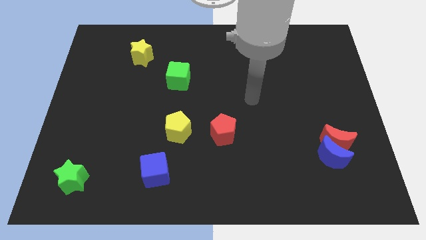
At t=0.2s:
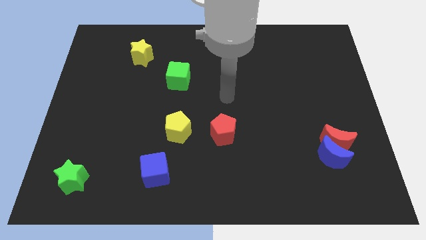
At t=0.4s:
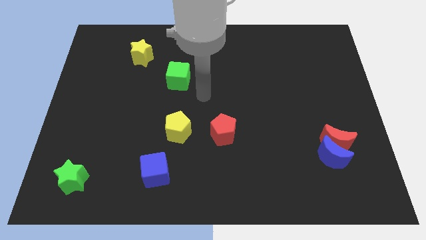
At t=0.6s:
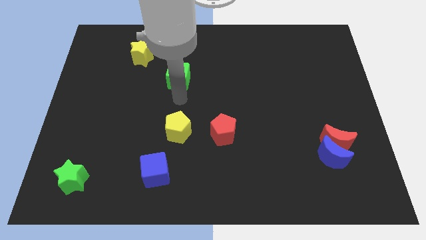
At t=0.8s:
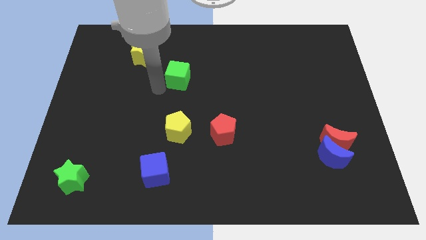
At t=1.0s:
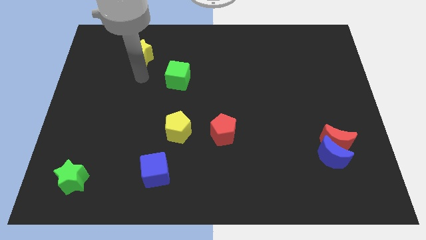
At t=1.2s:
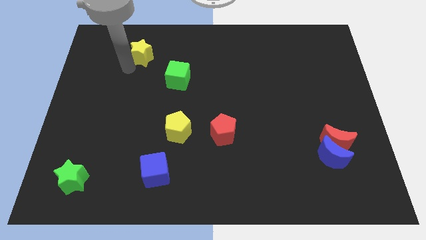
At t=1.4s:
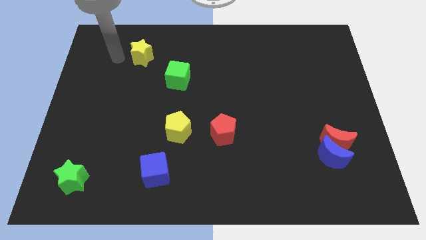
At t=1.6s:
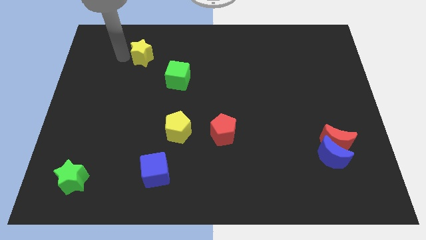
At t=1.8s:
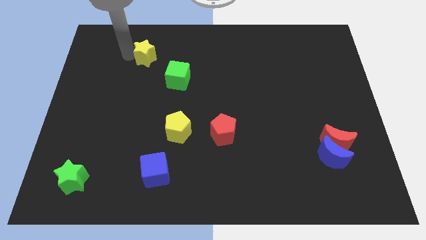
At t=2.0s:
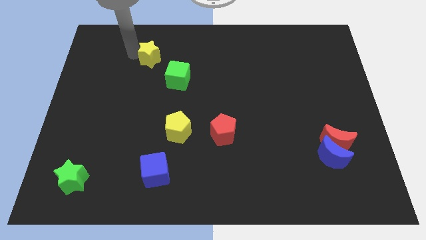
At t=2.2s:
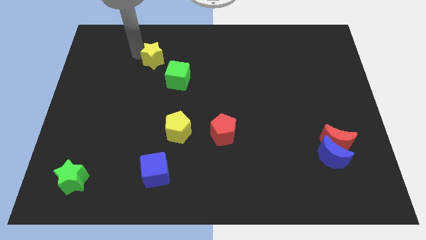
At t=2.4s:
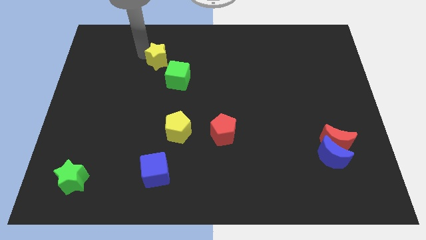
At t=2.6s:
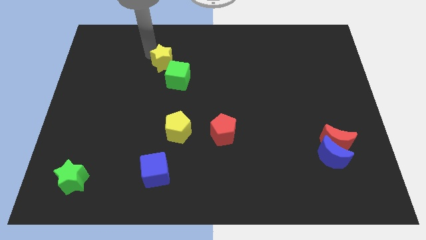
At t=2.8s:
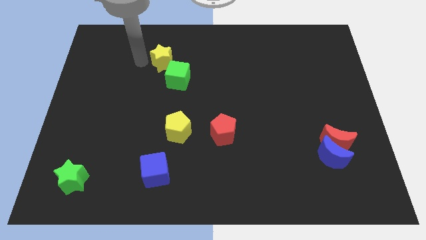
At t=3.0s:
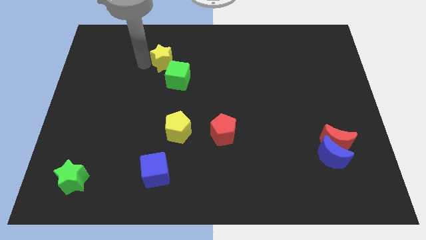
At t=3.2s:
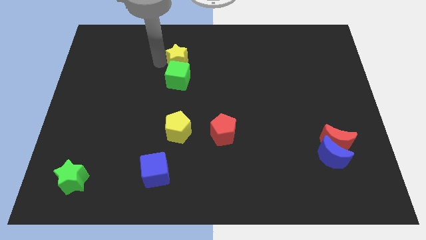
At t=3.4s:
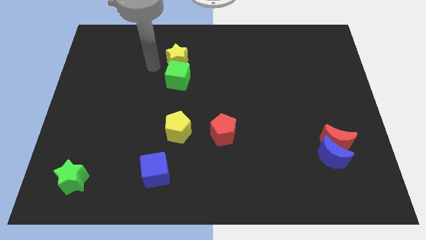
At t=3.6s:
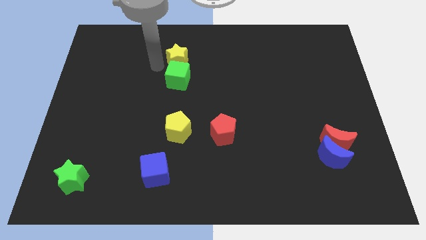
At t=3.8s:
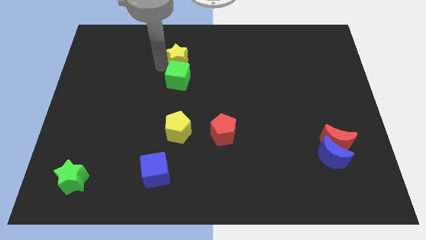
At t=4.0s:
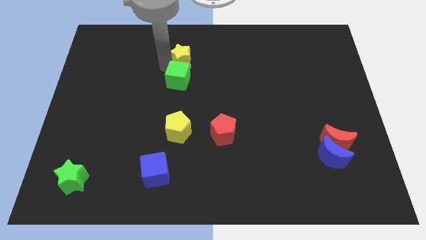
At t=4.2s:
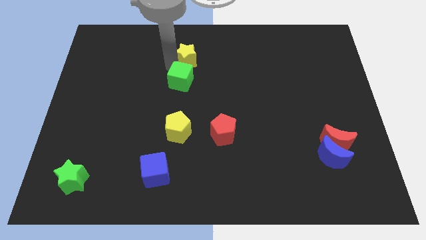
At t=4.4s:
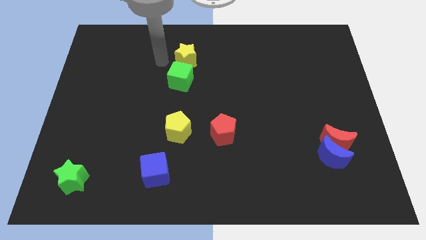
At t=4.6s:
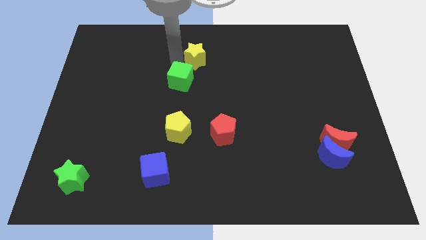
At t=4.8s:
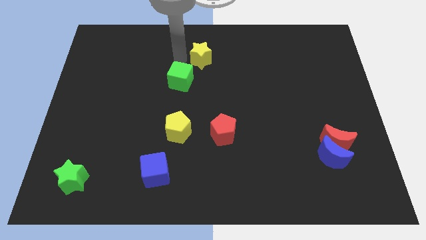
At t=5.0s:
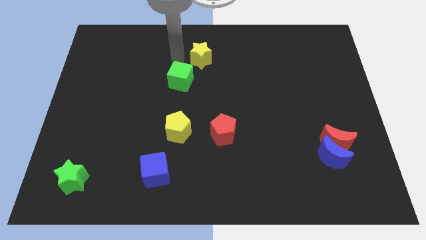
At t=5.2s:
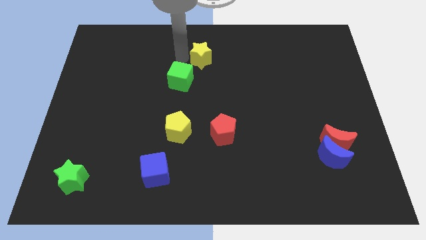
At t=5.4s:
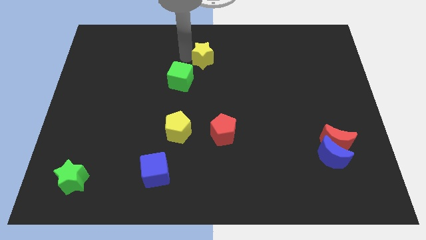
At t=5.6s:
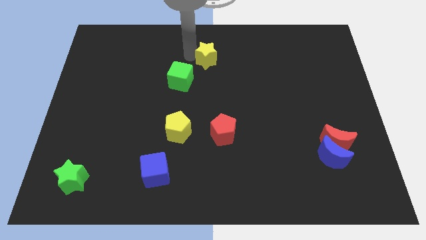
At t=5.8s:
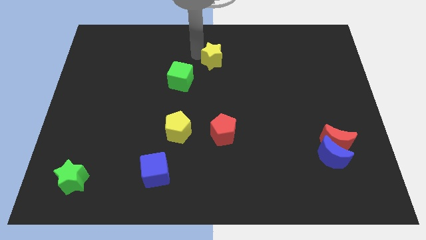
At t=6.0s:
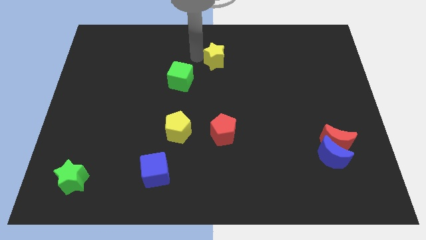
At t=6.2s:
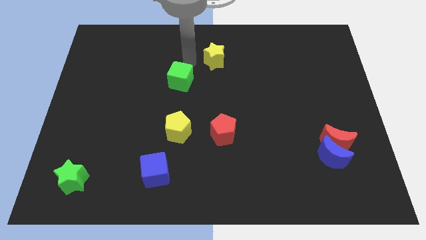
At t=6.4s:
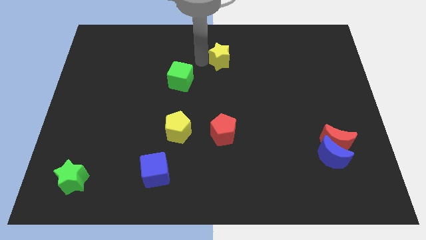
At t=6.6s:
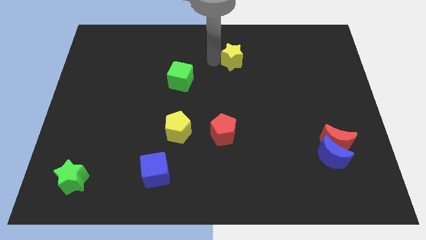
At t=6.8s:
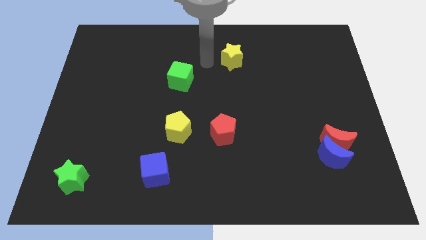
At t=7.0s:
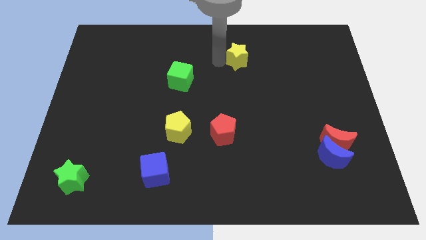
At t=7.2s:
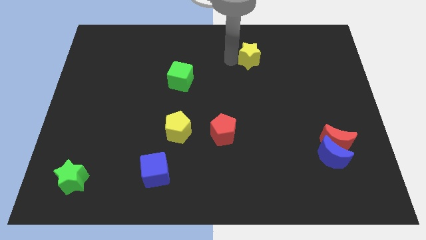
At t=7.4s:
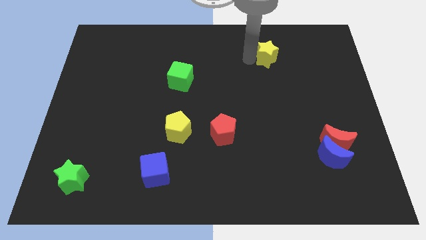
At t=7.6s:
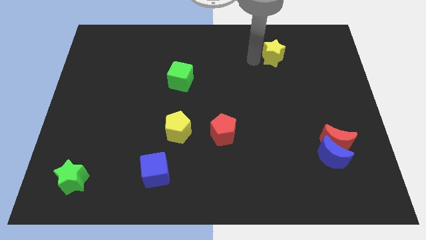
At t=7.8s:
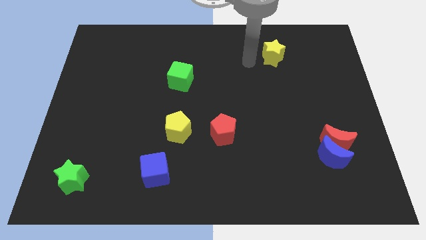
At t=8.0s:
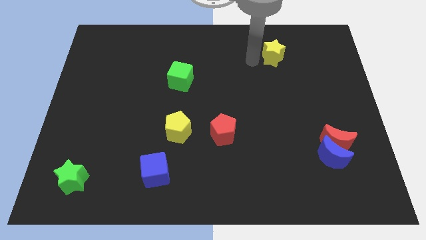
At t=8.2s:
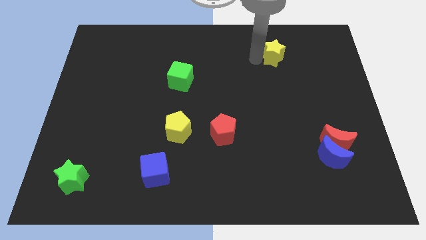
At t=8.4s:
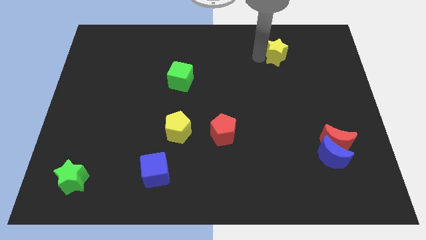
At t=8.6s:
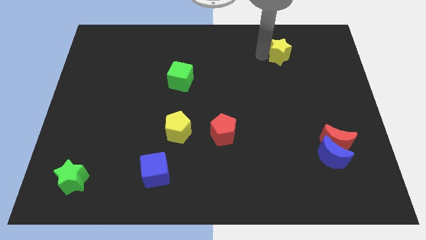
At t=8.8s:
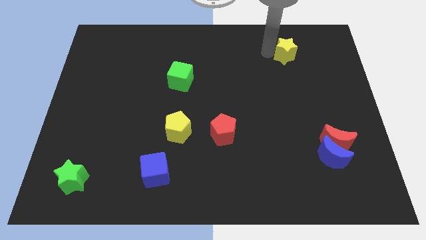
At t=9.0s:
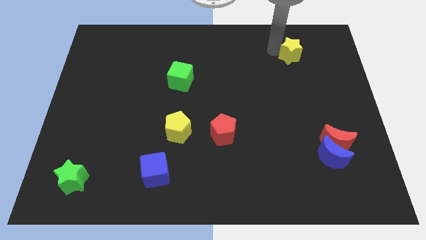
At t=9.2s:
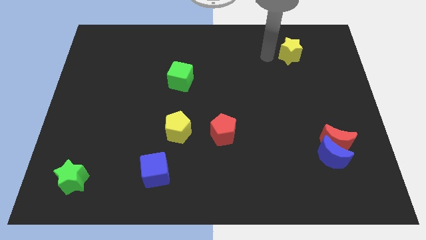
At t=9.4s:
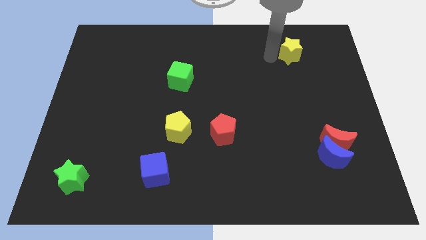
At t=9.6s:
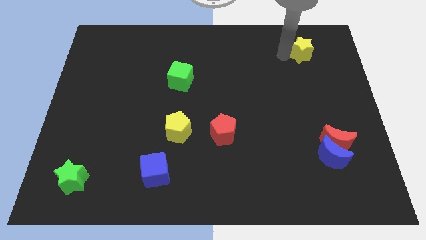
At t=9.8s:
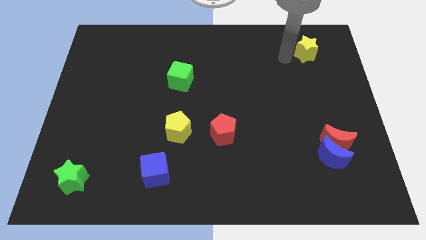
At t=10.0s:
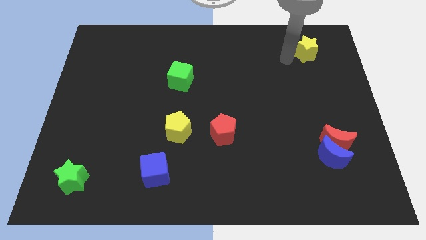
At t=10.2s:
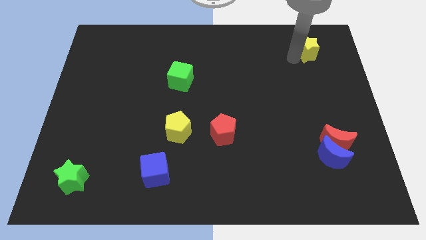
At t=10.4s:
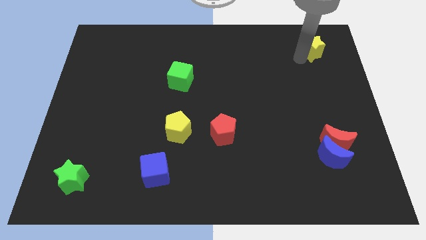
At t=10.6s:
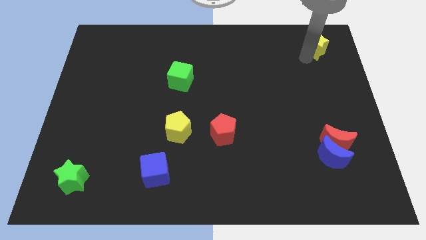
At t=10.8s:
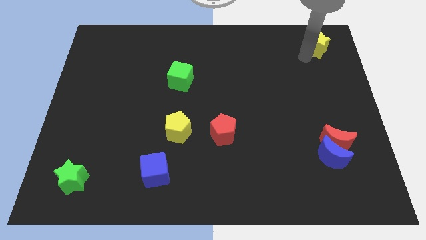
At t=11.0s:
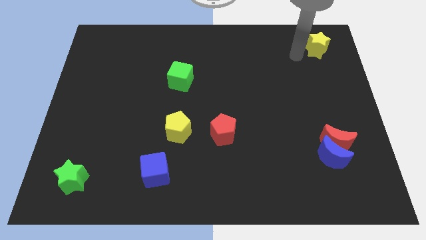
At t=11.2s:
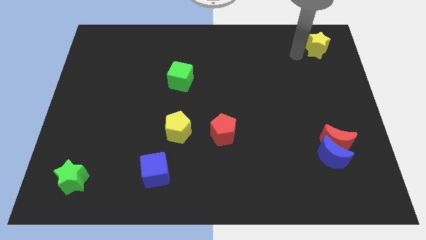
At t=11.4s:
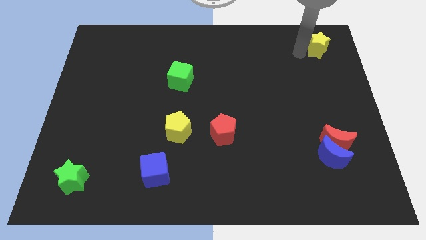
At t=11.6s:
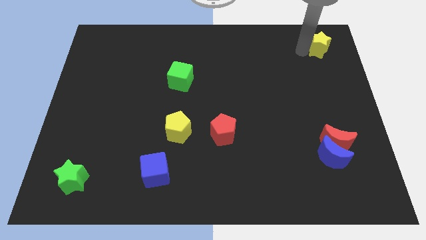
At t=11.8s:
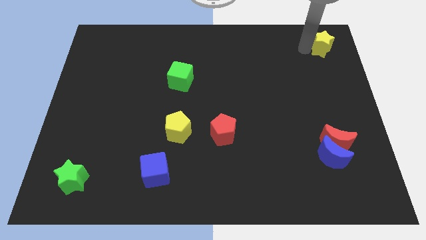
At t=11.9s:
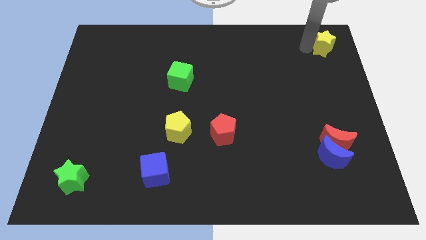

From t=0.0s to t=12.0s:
put the yellow star to the top right

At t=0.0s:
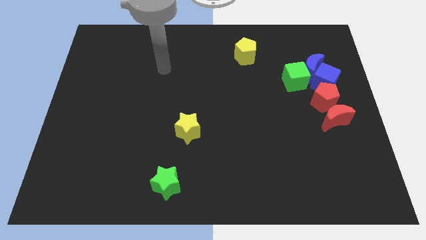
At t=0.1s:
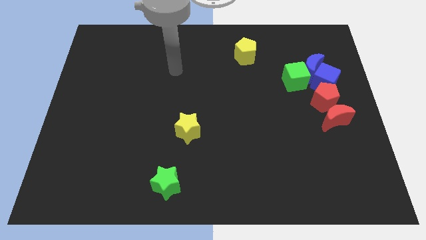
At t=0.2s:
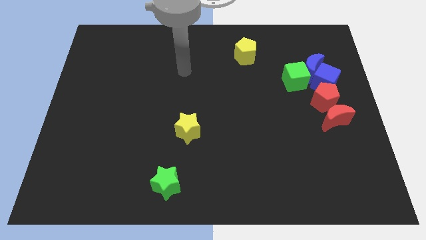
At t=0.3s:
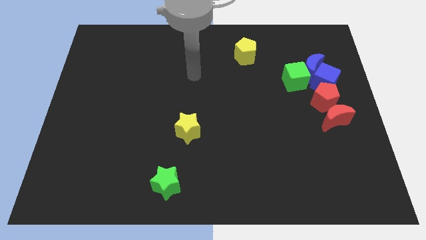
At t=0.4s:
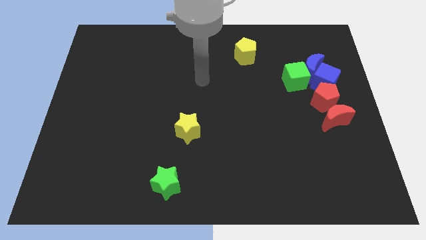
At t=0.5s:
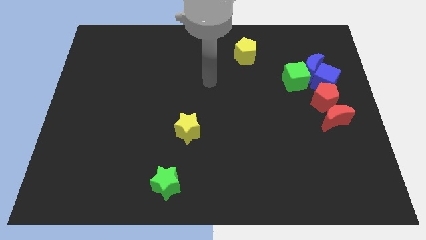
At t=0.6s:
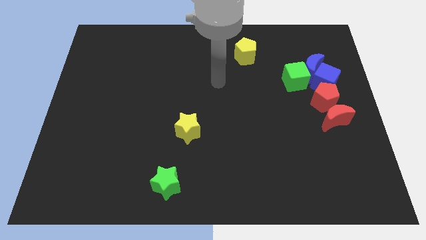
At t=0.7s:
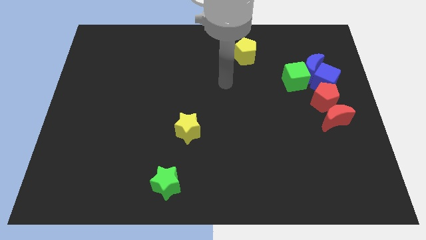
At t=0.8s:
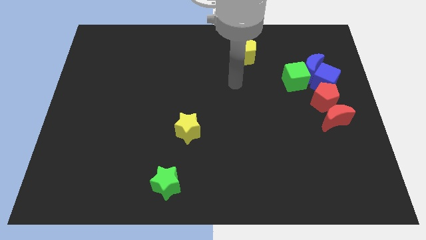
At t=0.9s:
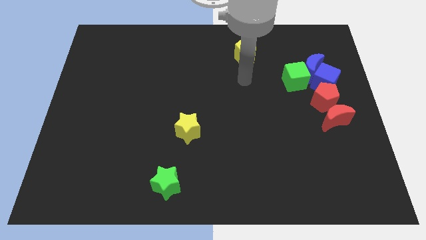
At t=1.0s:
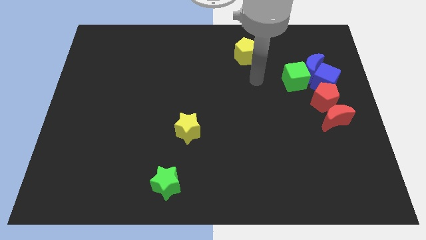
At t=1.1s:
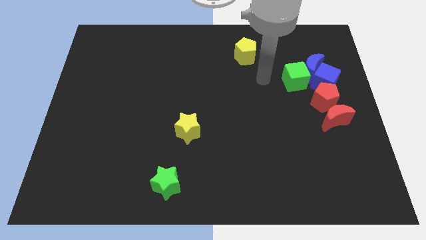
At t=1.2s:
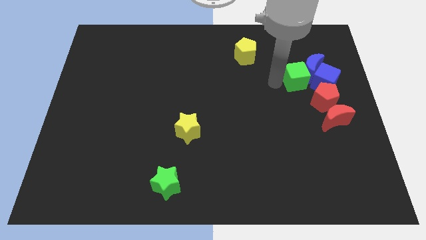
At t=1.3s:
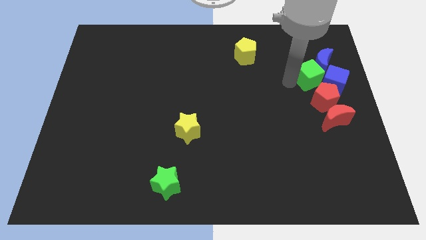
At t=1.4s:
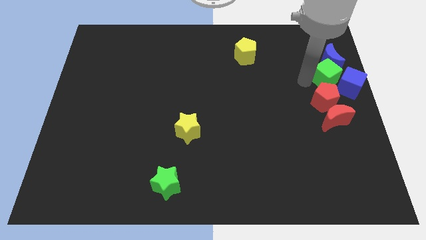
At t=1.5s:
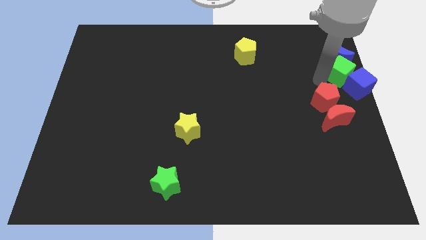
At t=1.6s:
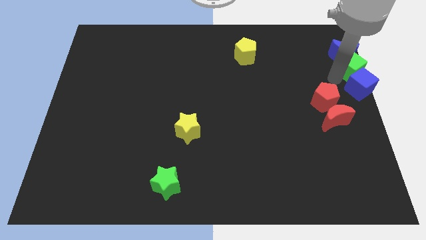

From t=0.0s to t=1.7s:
put the blue moon to the top right
